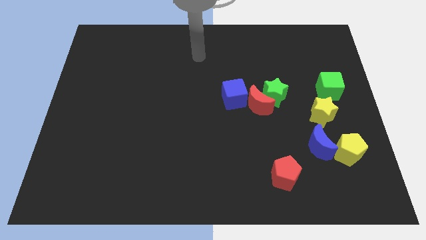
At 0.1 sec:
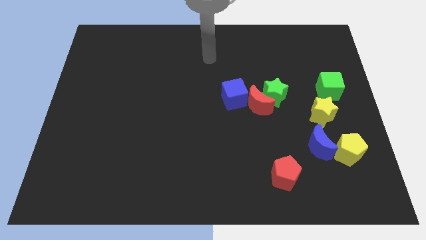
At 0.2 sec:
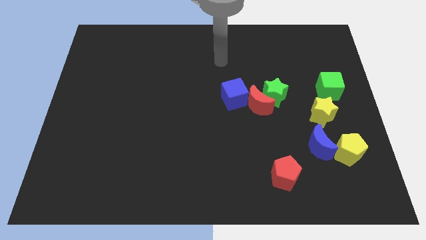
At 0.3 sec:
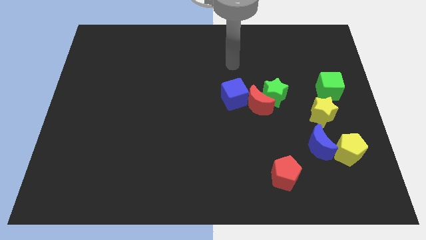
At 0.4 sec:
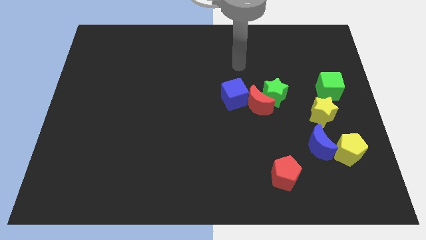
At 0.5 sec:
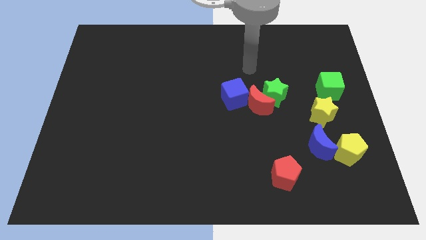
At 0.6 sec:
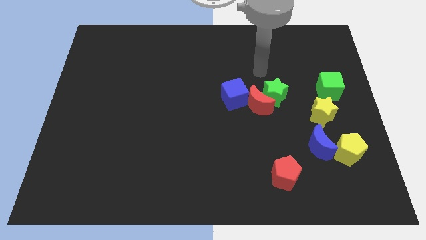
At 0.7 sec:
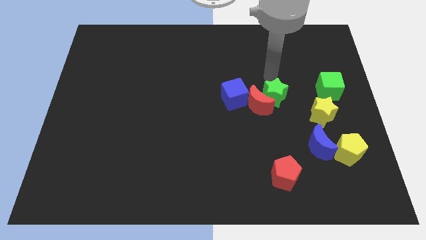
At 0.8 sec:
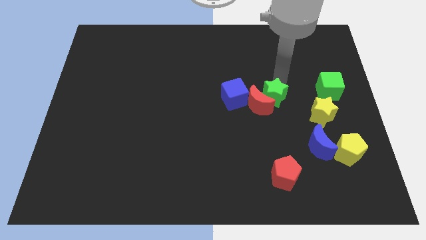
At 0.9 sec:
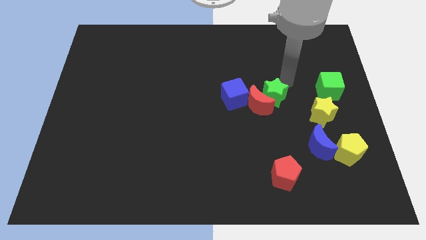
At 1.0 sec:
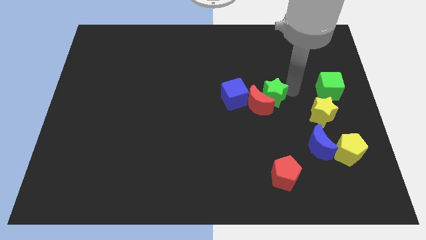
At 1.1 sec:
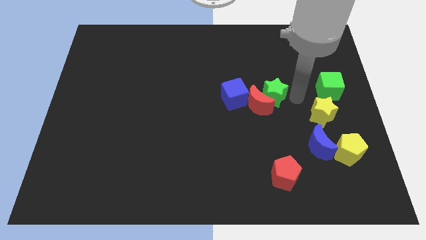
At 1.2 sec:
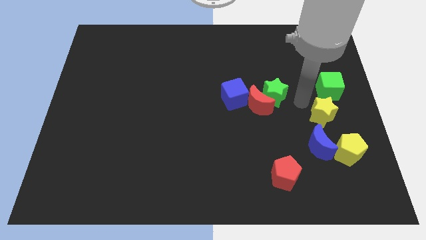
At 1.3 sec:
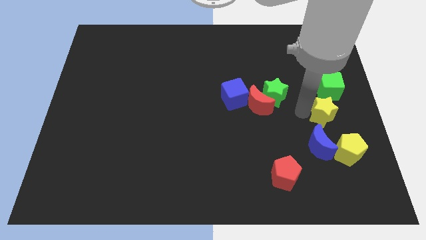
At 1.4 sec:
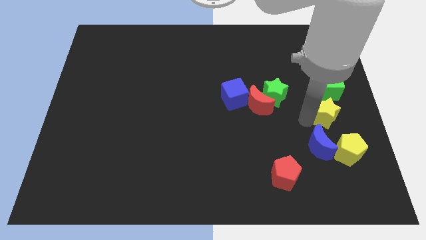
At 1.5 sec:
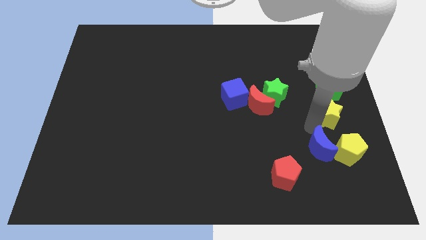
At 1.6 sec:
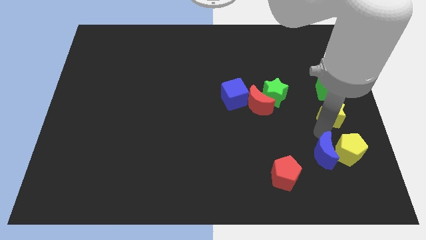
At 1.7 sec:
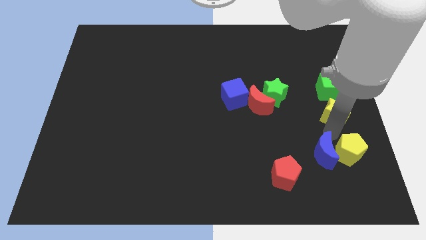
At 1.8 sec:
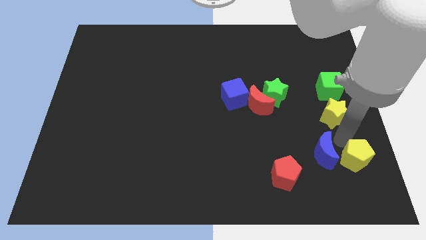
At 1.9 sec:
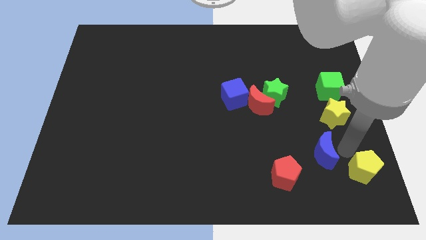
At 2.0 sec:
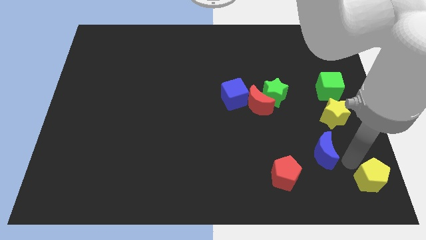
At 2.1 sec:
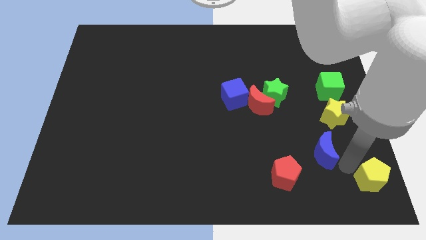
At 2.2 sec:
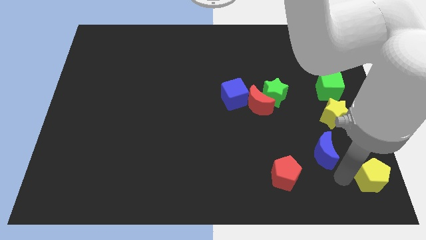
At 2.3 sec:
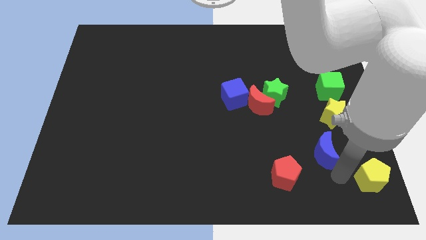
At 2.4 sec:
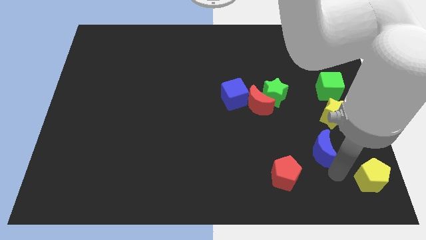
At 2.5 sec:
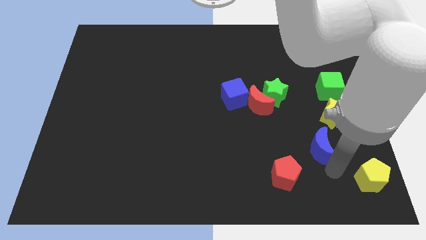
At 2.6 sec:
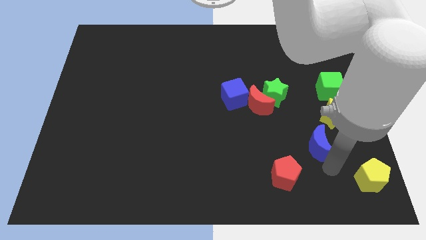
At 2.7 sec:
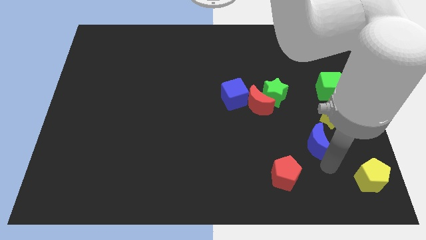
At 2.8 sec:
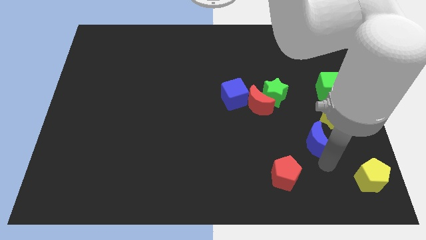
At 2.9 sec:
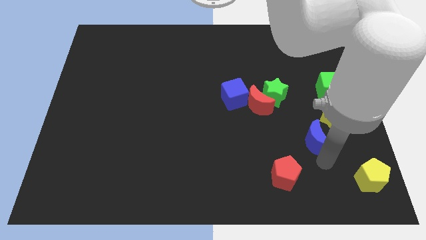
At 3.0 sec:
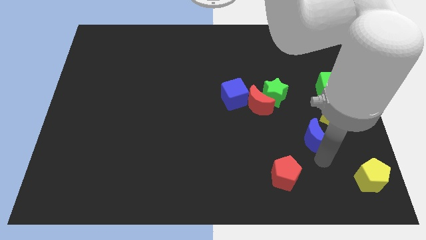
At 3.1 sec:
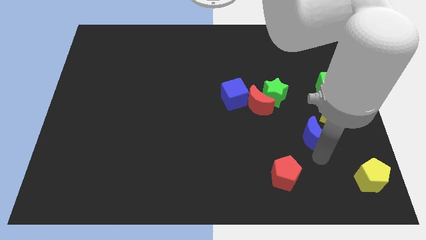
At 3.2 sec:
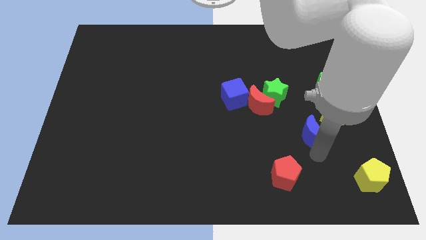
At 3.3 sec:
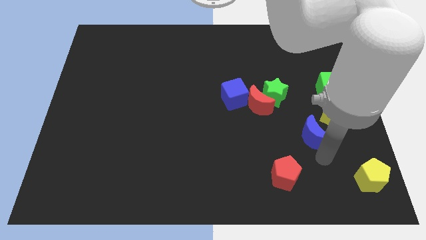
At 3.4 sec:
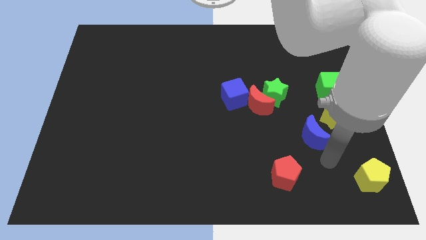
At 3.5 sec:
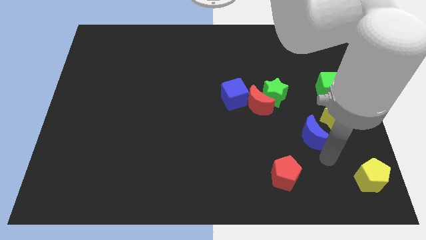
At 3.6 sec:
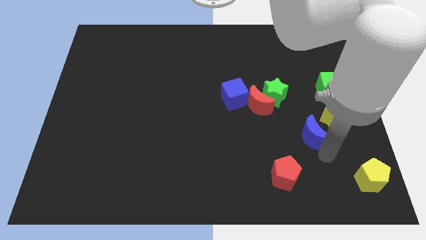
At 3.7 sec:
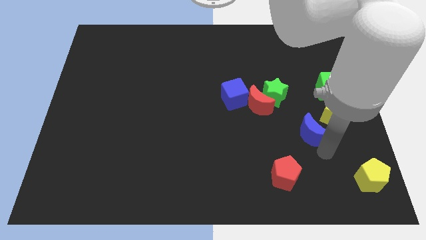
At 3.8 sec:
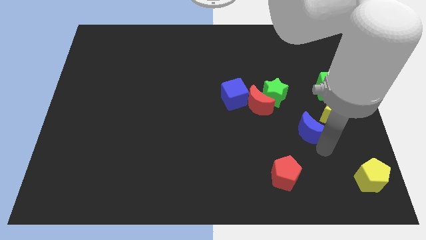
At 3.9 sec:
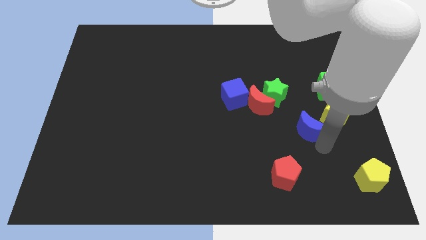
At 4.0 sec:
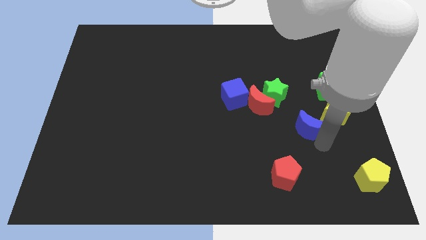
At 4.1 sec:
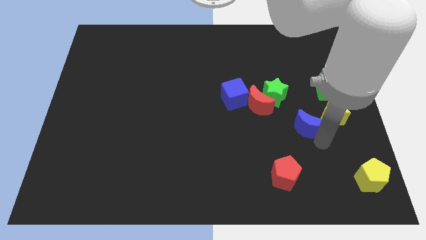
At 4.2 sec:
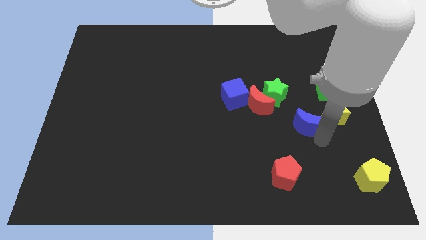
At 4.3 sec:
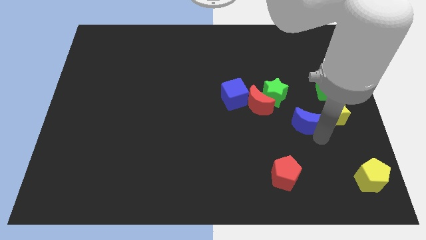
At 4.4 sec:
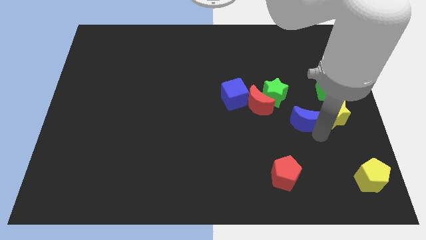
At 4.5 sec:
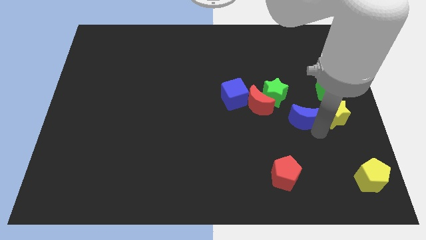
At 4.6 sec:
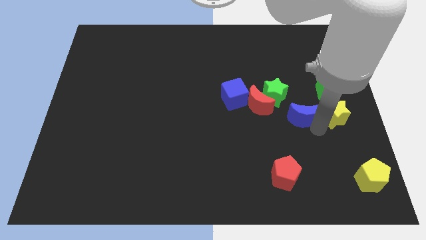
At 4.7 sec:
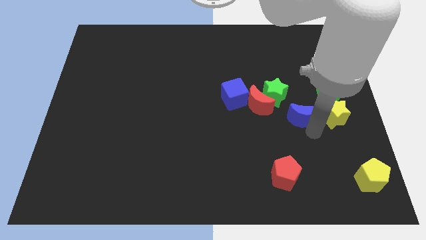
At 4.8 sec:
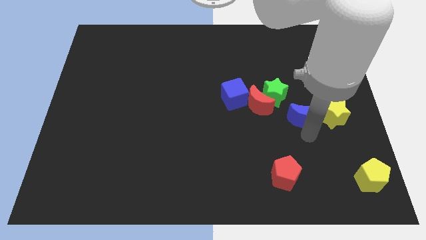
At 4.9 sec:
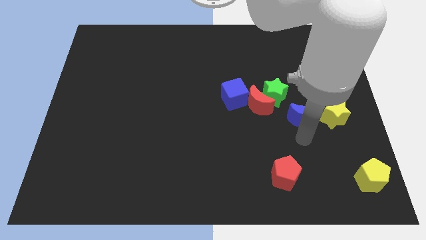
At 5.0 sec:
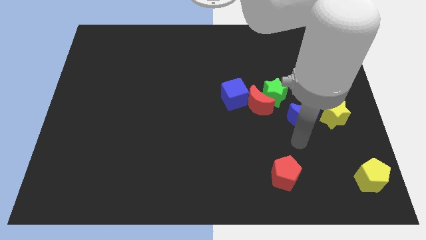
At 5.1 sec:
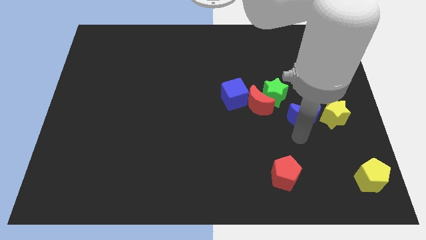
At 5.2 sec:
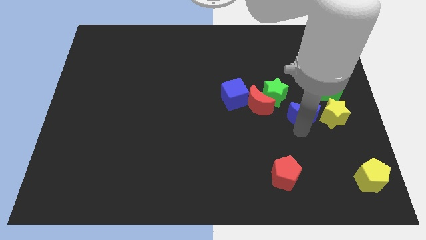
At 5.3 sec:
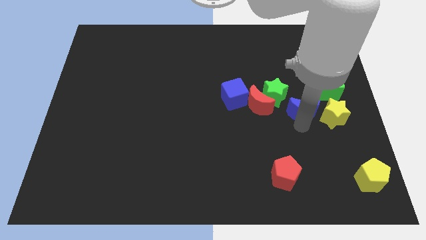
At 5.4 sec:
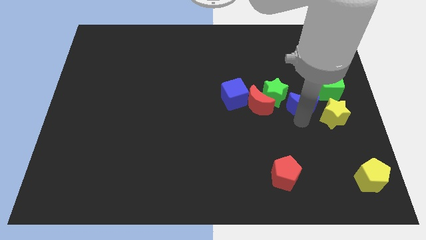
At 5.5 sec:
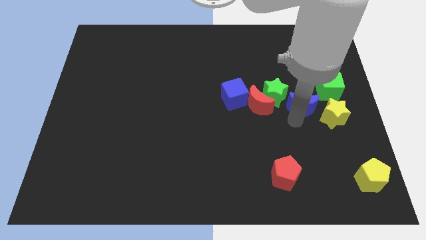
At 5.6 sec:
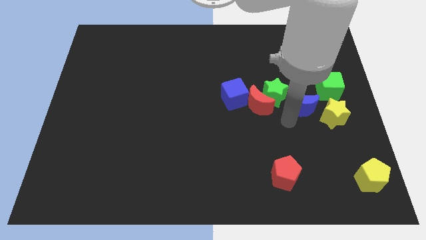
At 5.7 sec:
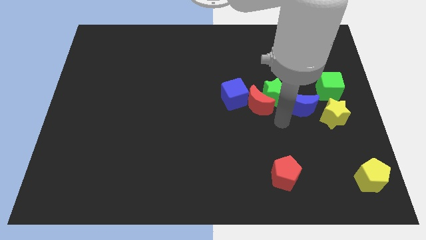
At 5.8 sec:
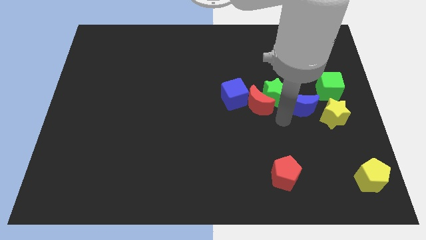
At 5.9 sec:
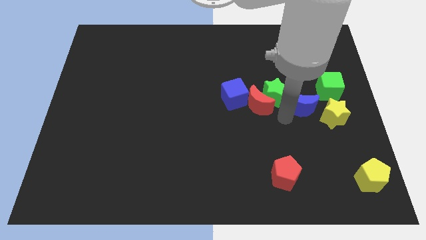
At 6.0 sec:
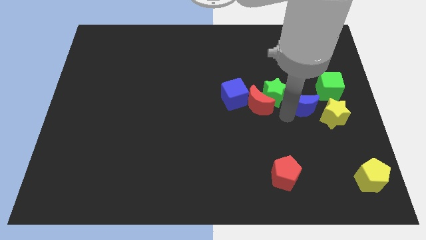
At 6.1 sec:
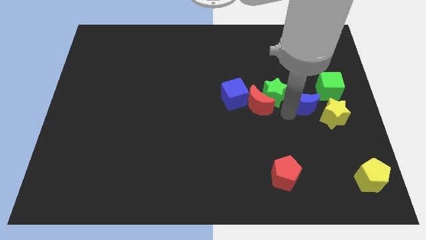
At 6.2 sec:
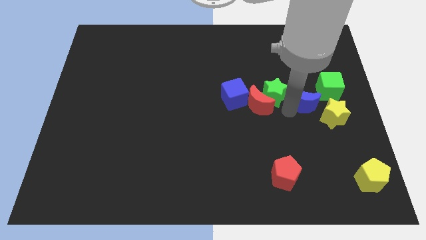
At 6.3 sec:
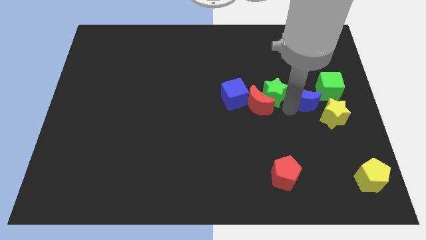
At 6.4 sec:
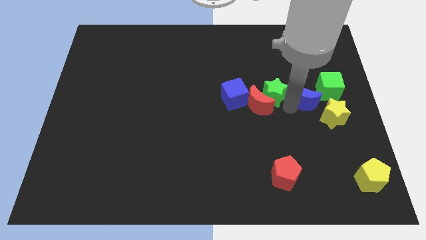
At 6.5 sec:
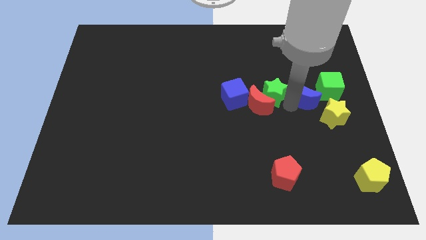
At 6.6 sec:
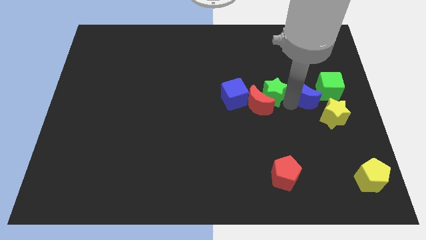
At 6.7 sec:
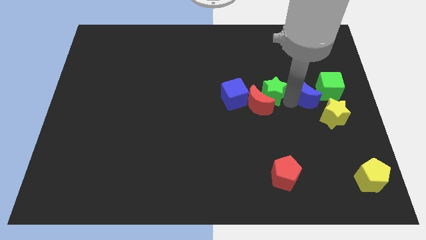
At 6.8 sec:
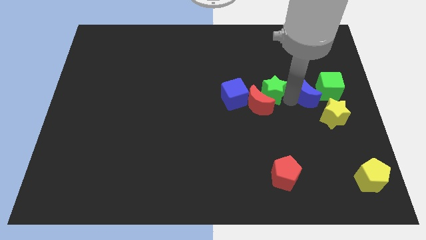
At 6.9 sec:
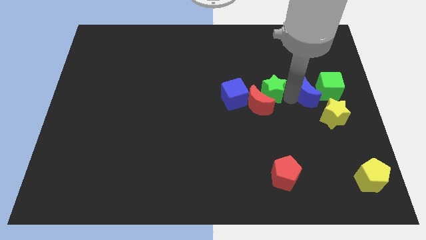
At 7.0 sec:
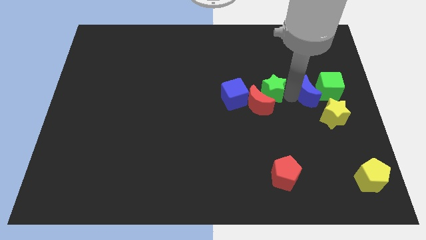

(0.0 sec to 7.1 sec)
put the blue moon towards the green cube

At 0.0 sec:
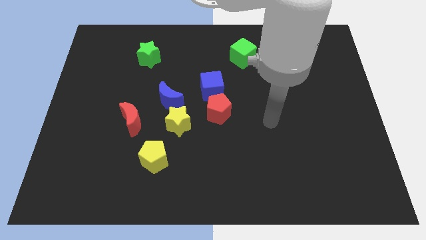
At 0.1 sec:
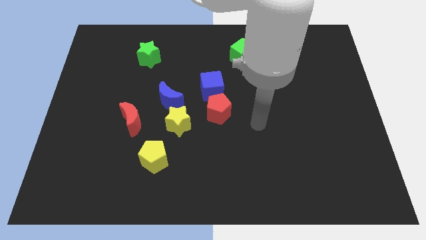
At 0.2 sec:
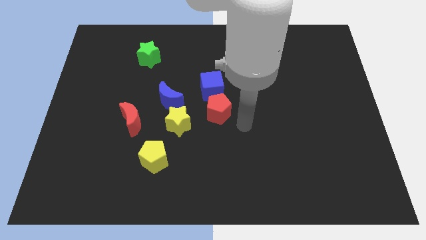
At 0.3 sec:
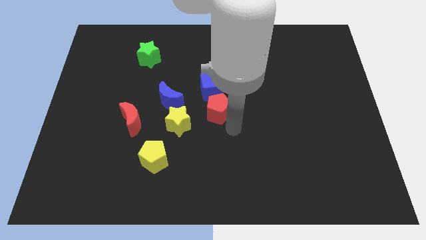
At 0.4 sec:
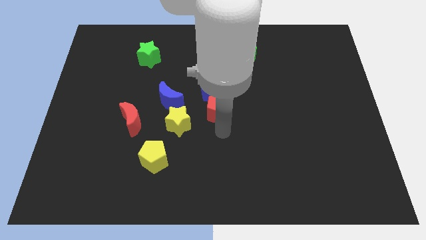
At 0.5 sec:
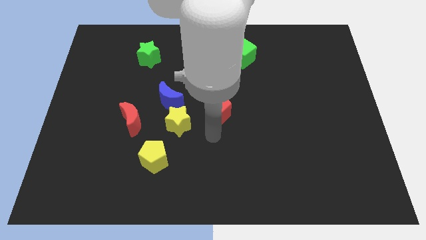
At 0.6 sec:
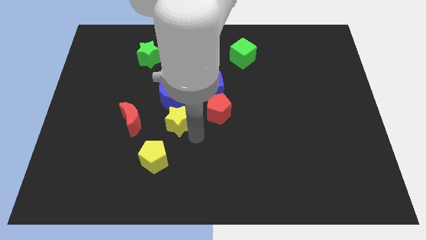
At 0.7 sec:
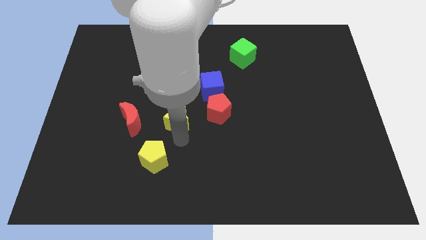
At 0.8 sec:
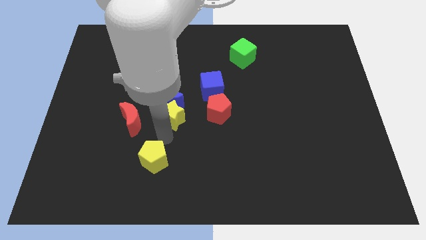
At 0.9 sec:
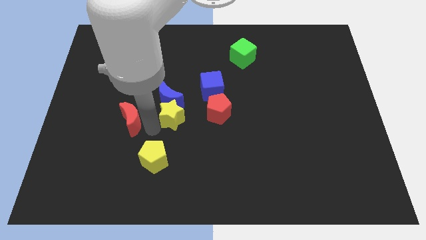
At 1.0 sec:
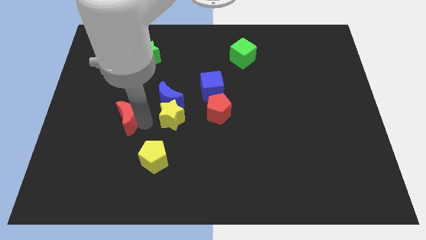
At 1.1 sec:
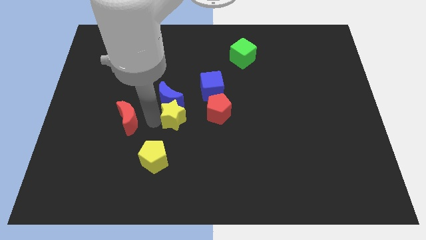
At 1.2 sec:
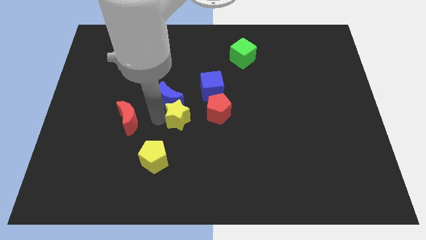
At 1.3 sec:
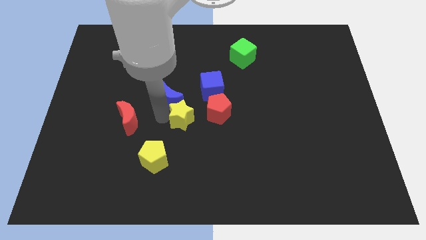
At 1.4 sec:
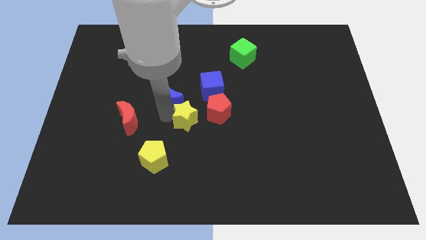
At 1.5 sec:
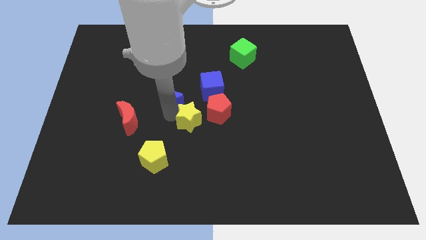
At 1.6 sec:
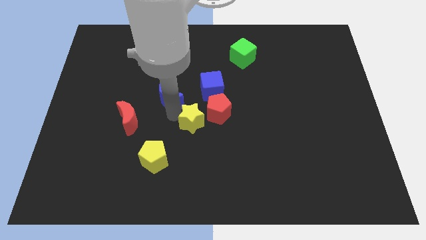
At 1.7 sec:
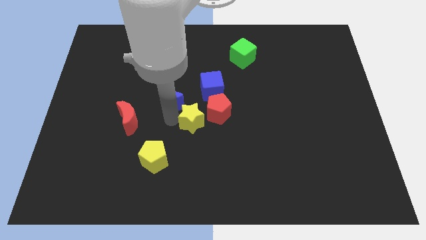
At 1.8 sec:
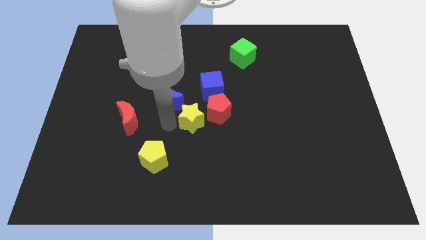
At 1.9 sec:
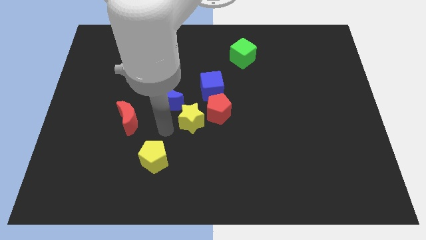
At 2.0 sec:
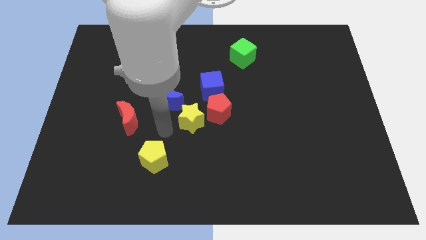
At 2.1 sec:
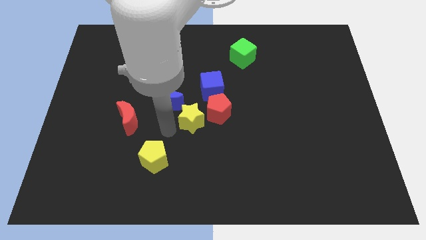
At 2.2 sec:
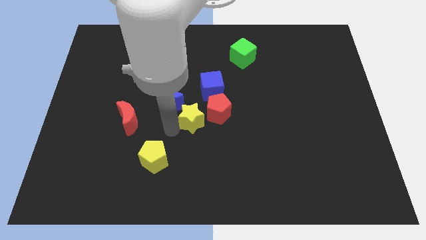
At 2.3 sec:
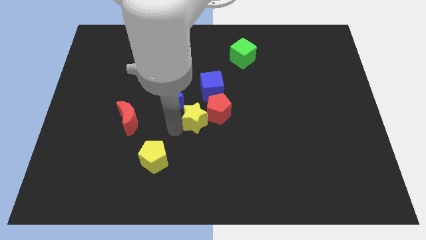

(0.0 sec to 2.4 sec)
move the yellow star towards the red pentagon
